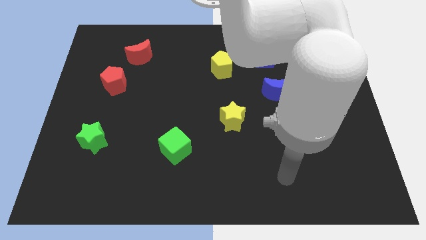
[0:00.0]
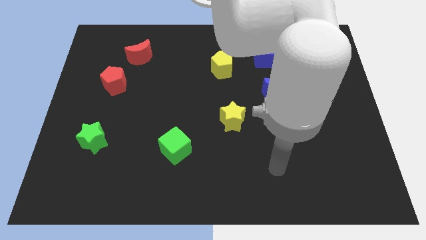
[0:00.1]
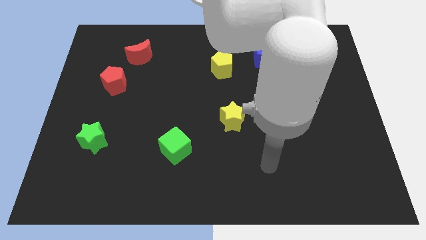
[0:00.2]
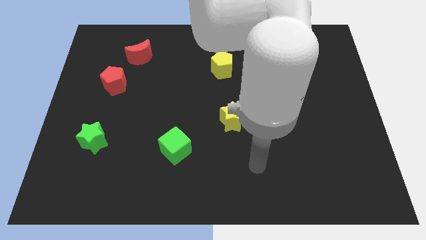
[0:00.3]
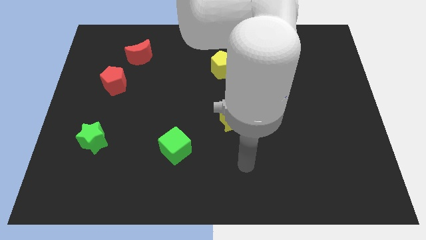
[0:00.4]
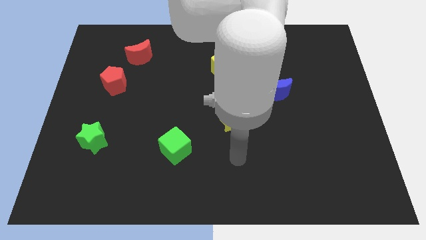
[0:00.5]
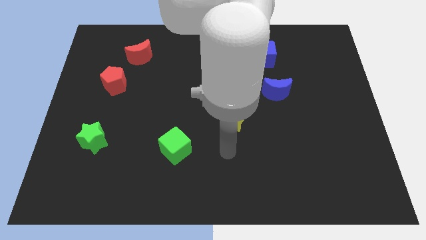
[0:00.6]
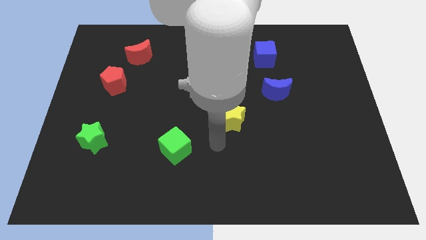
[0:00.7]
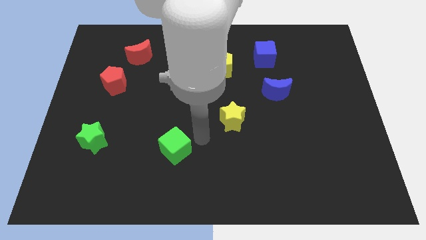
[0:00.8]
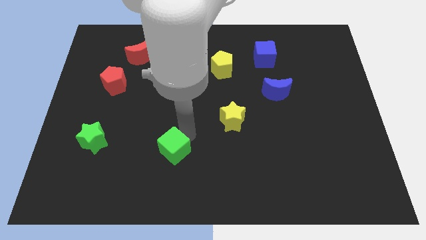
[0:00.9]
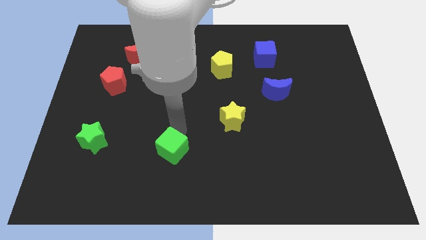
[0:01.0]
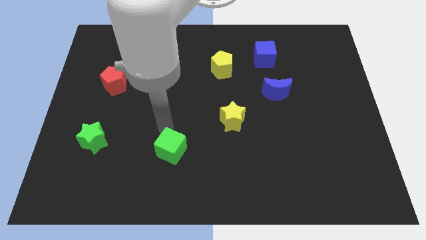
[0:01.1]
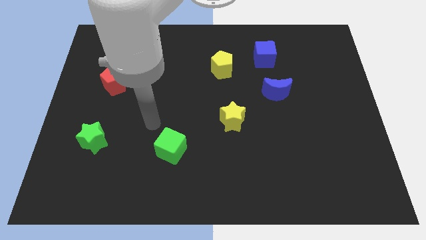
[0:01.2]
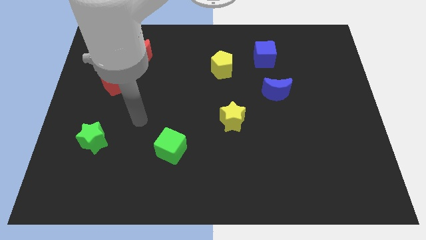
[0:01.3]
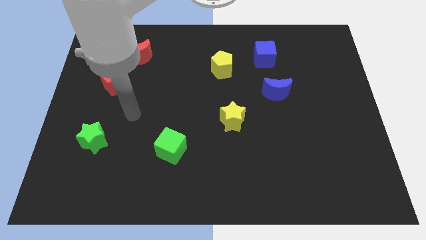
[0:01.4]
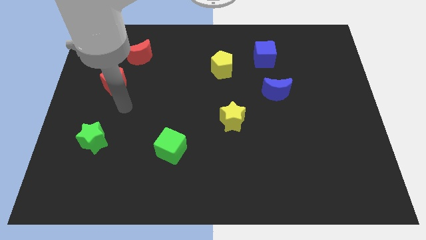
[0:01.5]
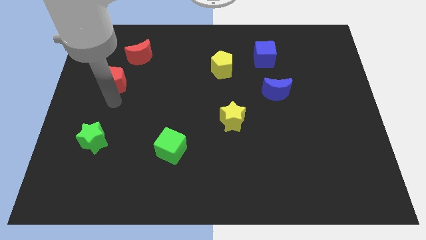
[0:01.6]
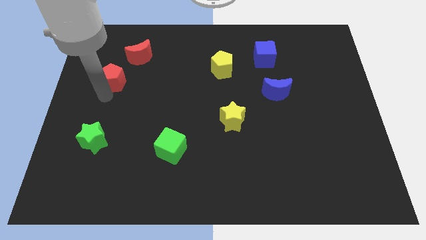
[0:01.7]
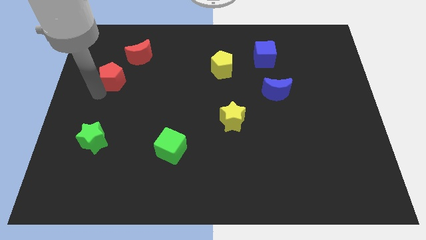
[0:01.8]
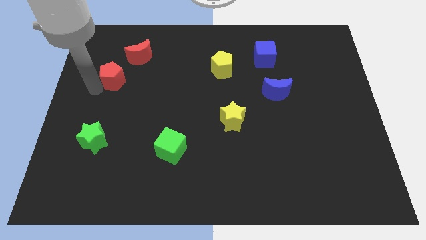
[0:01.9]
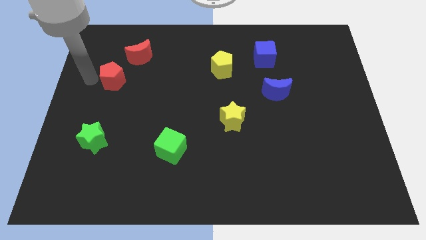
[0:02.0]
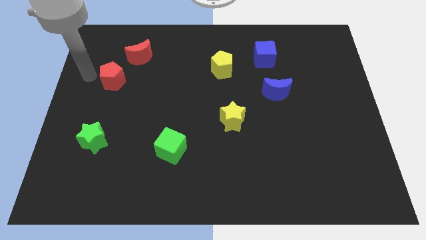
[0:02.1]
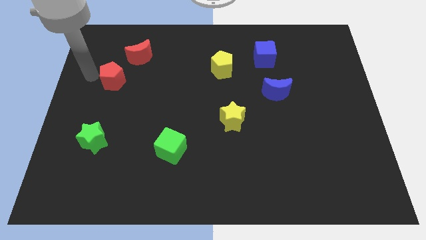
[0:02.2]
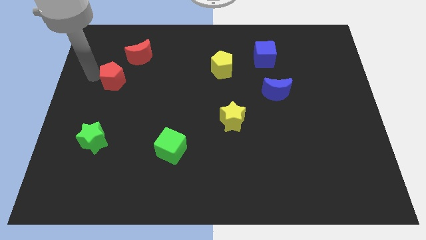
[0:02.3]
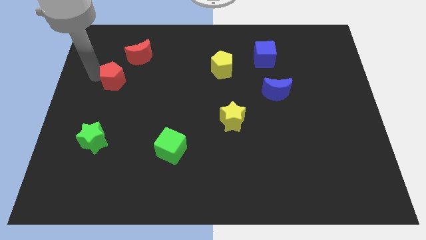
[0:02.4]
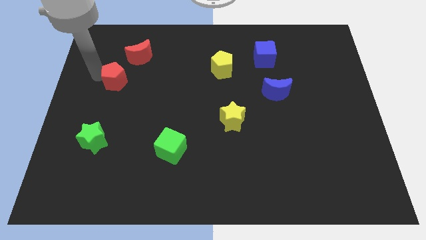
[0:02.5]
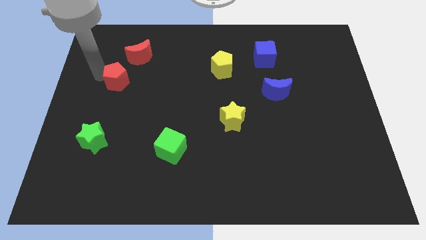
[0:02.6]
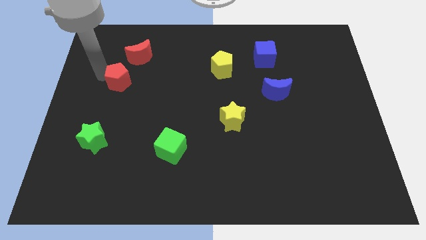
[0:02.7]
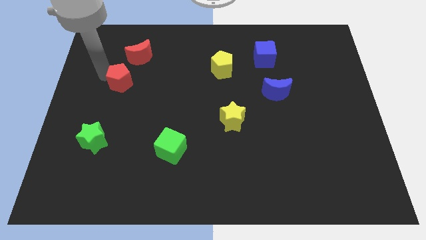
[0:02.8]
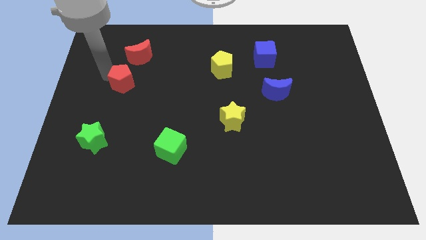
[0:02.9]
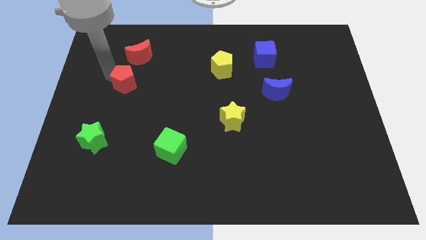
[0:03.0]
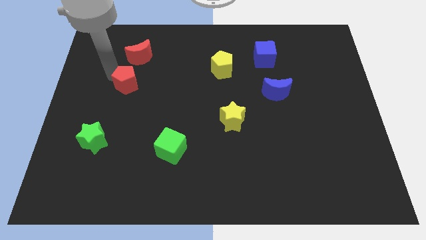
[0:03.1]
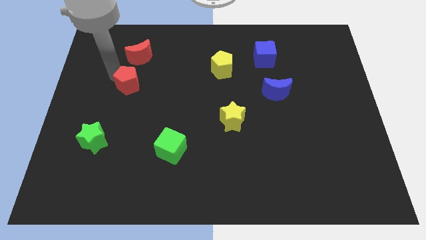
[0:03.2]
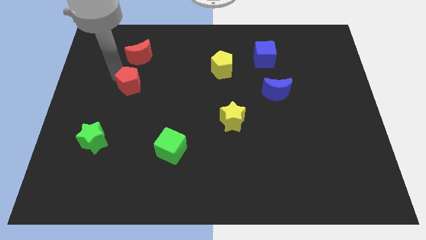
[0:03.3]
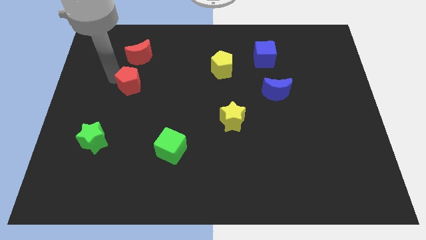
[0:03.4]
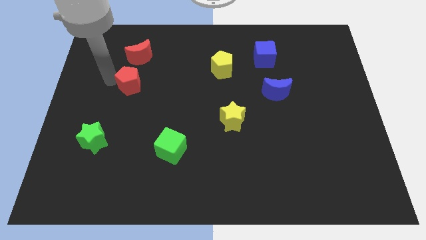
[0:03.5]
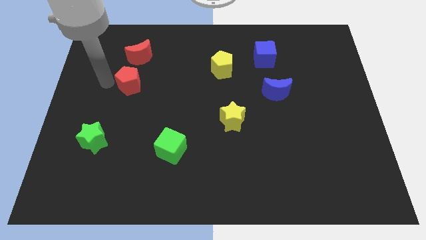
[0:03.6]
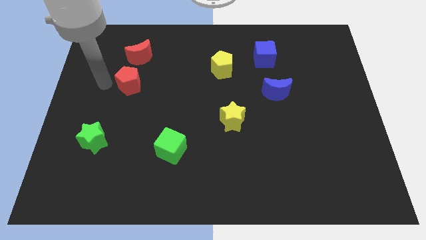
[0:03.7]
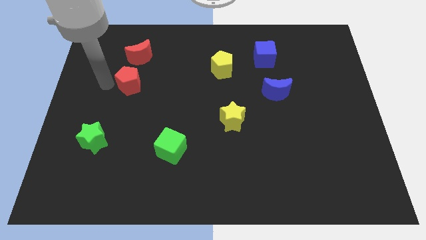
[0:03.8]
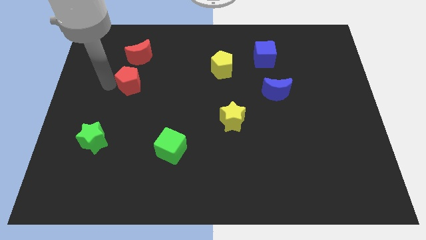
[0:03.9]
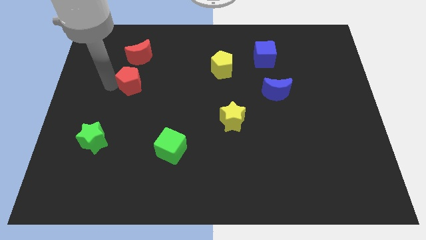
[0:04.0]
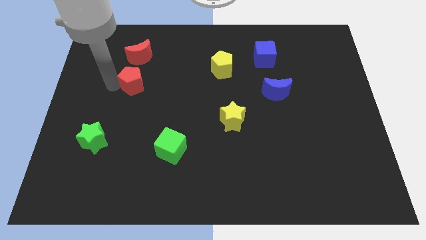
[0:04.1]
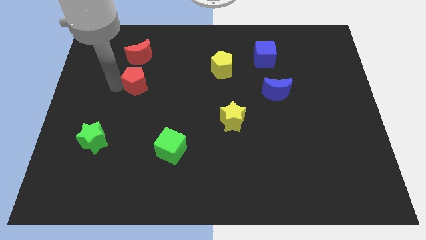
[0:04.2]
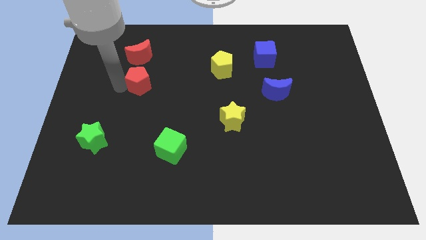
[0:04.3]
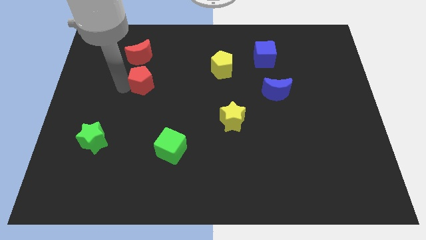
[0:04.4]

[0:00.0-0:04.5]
slide the red pentagon to the right somewhat

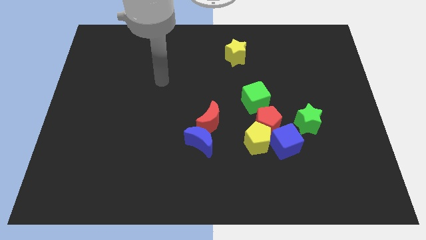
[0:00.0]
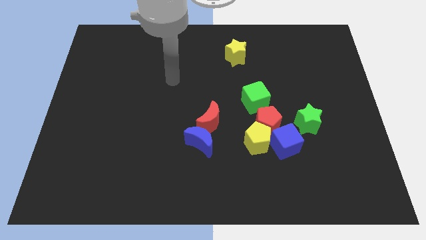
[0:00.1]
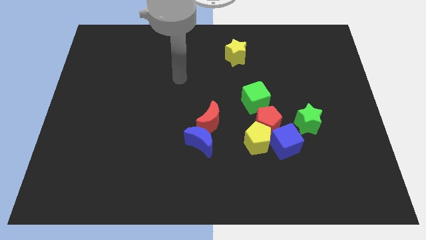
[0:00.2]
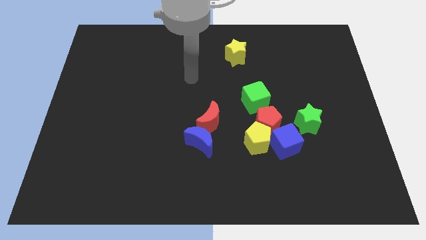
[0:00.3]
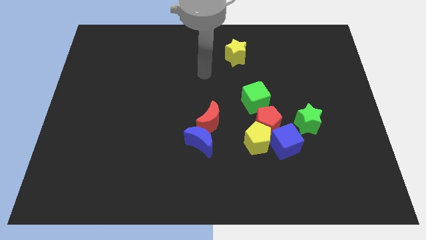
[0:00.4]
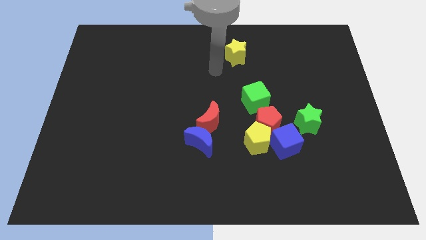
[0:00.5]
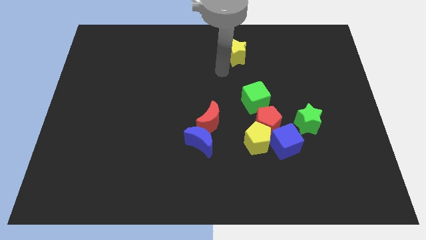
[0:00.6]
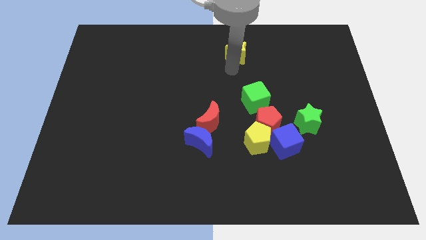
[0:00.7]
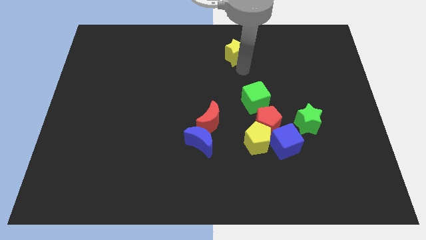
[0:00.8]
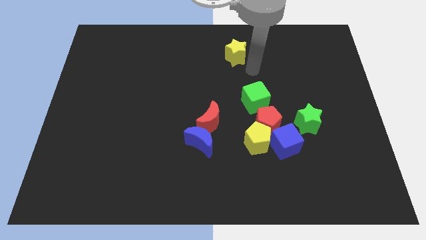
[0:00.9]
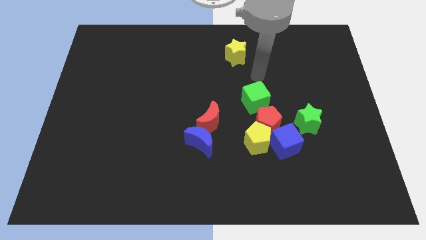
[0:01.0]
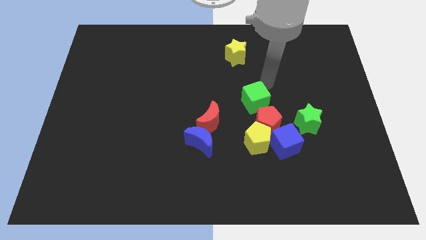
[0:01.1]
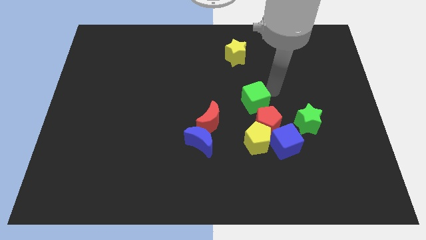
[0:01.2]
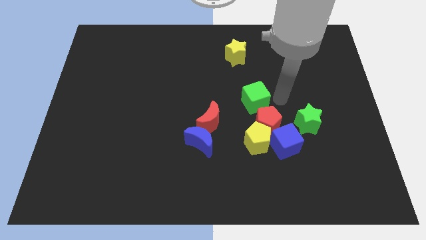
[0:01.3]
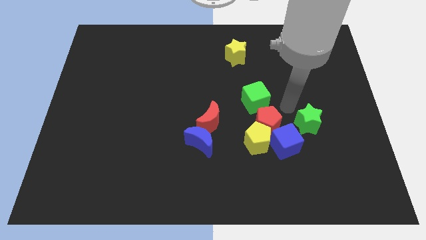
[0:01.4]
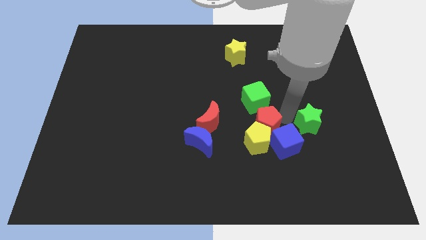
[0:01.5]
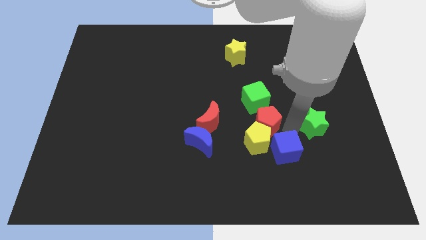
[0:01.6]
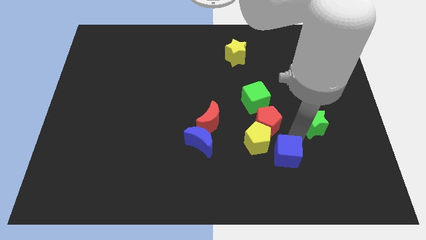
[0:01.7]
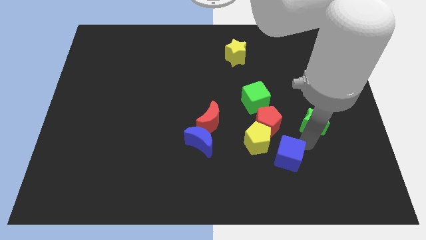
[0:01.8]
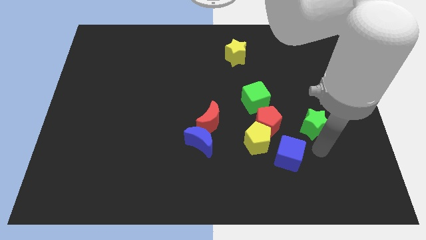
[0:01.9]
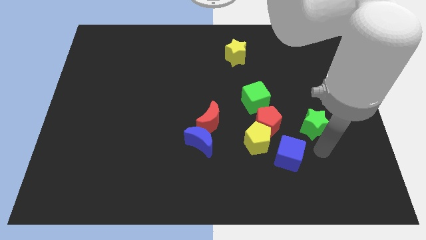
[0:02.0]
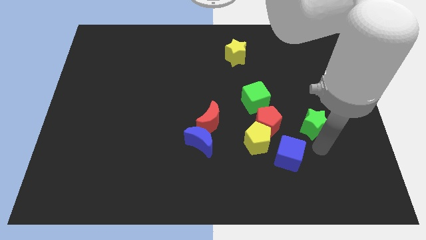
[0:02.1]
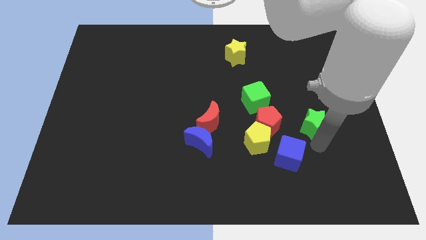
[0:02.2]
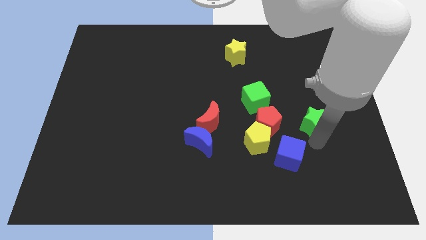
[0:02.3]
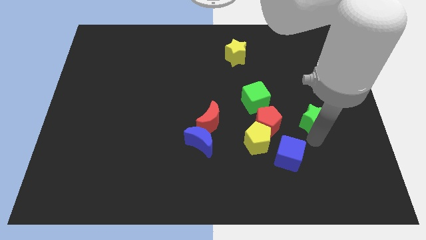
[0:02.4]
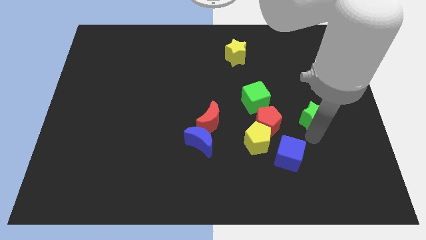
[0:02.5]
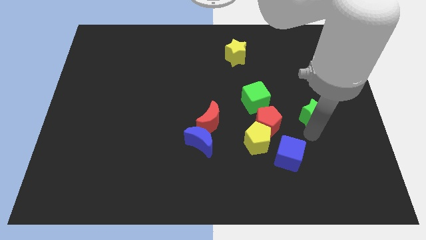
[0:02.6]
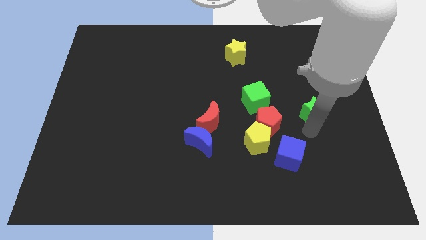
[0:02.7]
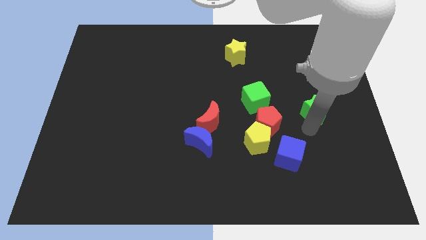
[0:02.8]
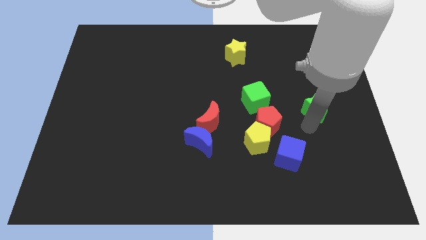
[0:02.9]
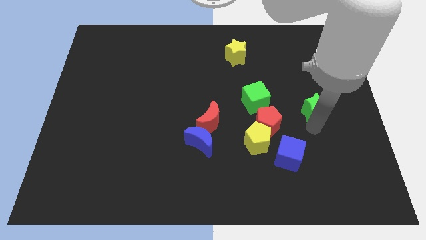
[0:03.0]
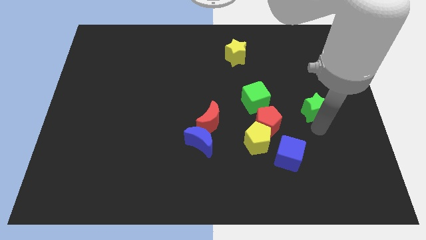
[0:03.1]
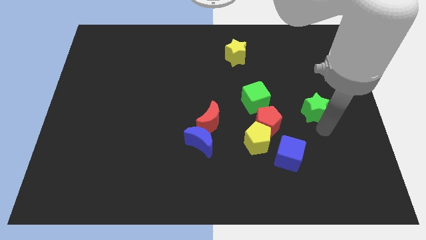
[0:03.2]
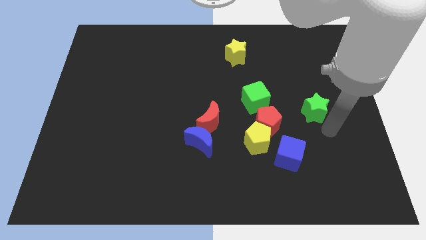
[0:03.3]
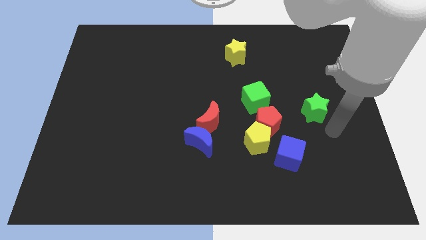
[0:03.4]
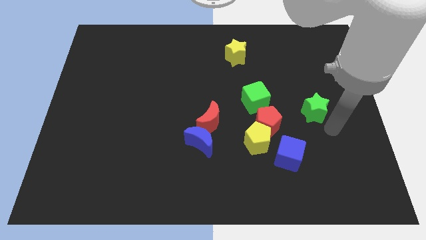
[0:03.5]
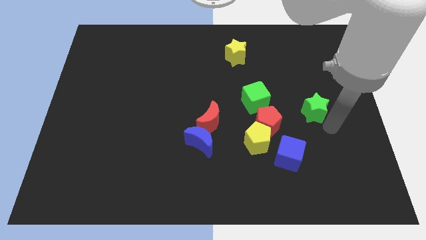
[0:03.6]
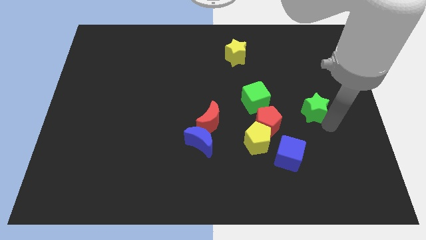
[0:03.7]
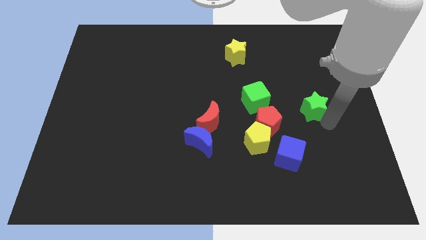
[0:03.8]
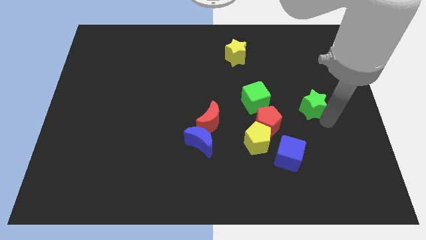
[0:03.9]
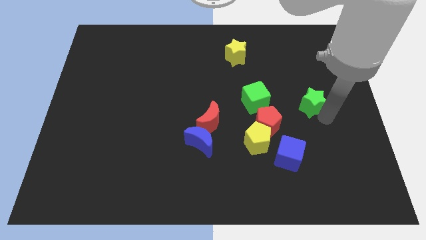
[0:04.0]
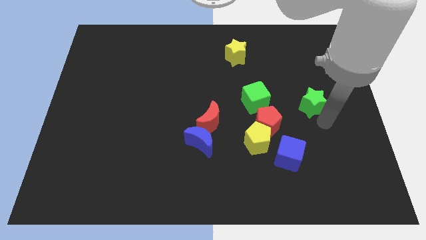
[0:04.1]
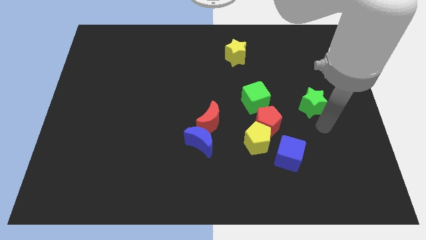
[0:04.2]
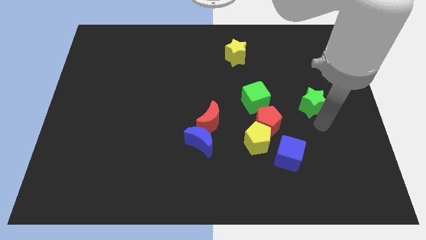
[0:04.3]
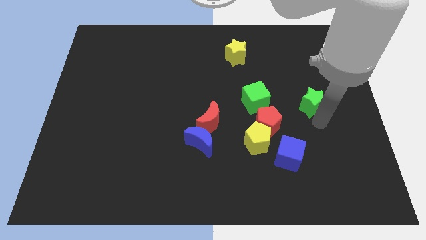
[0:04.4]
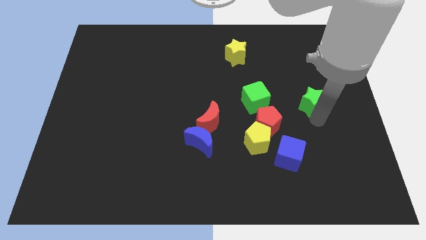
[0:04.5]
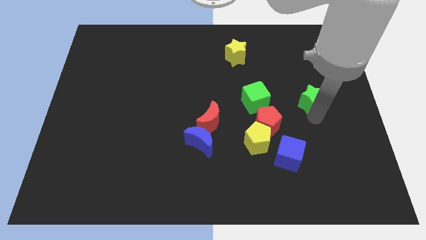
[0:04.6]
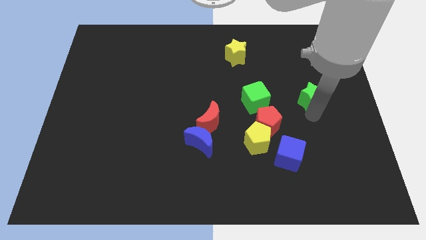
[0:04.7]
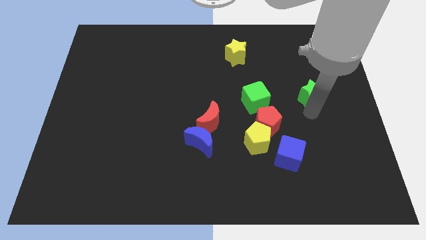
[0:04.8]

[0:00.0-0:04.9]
push the green star a little bit up
